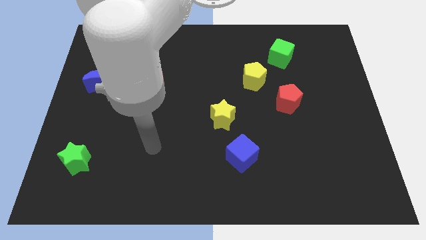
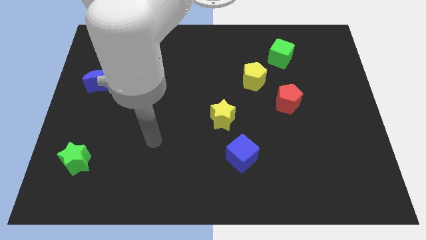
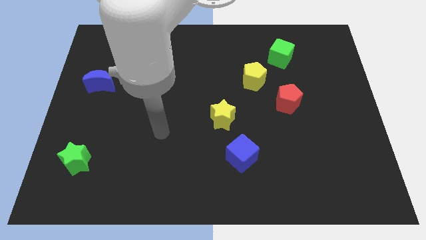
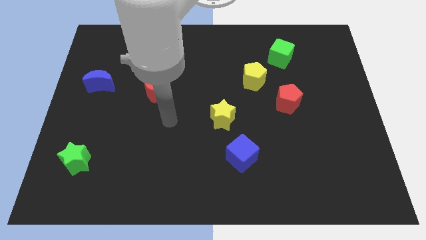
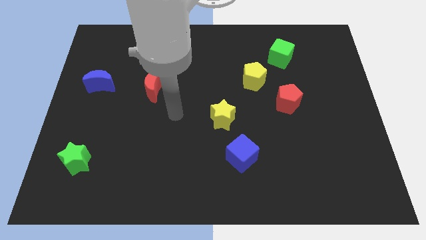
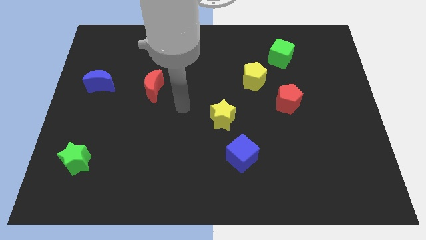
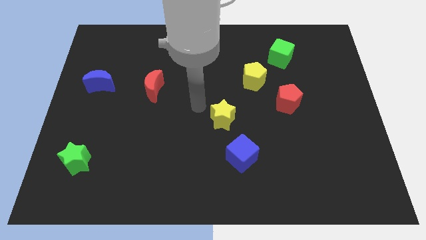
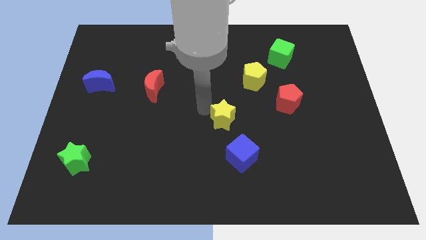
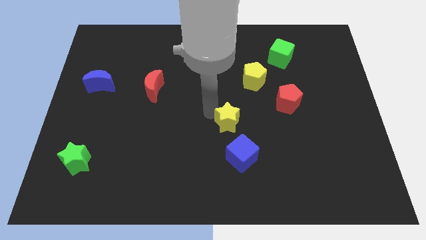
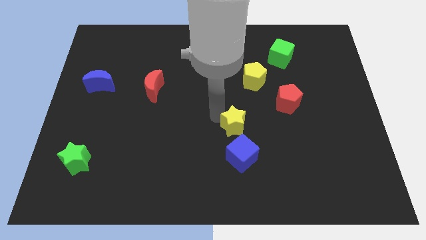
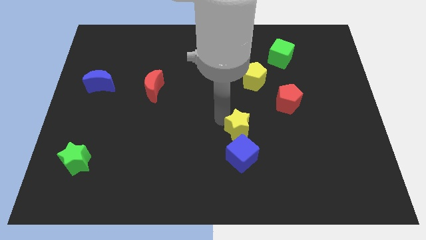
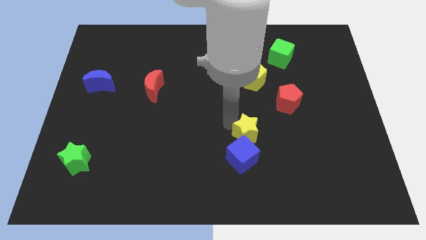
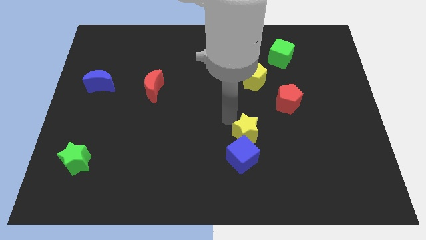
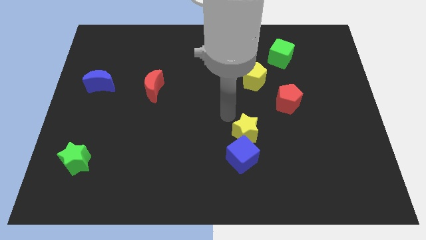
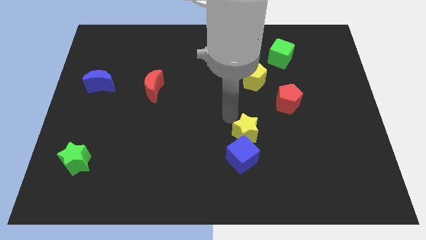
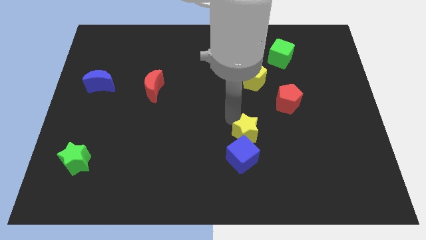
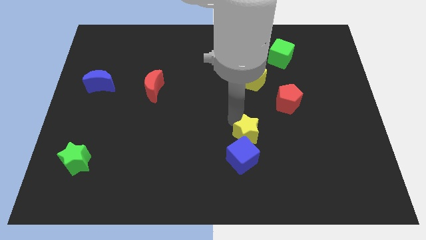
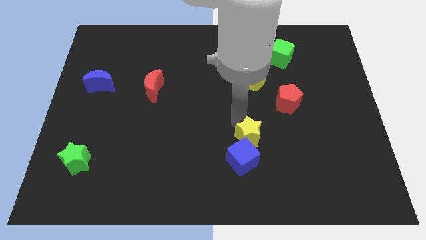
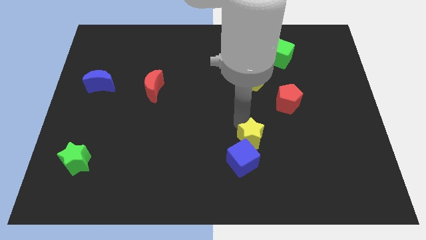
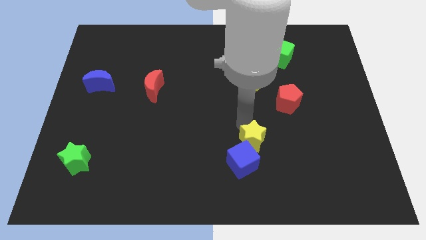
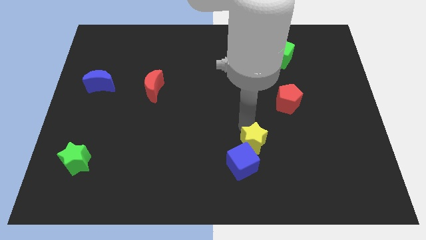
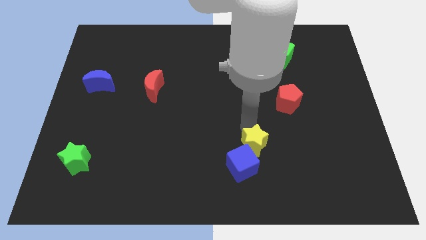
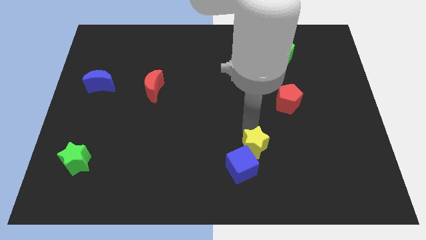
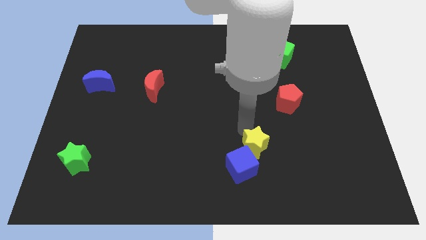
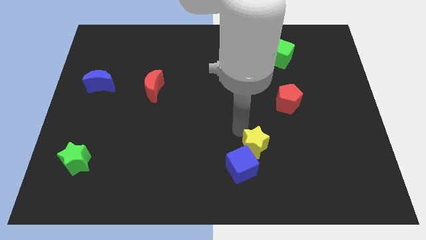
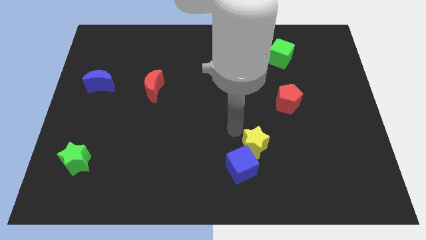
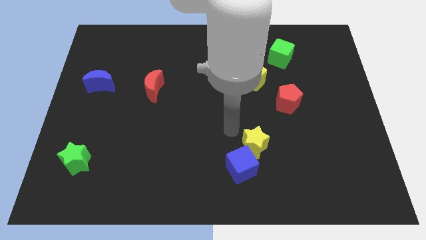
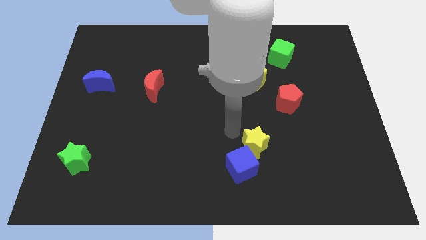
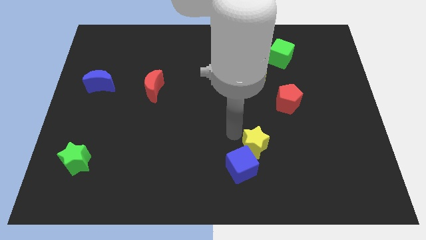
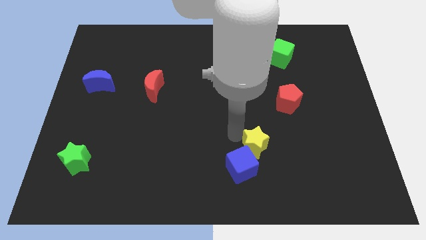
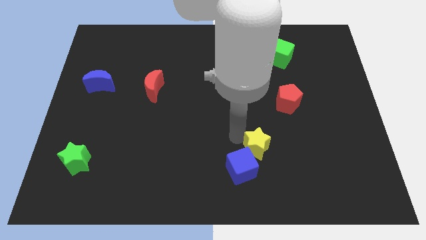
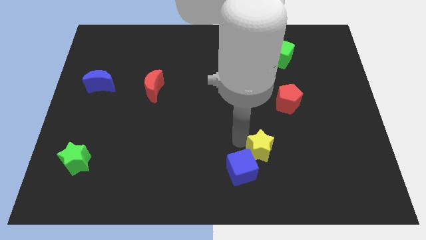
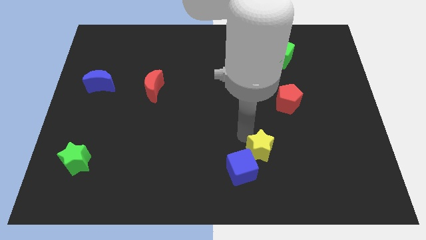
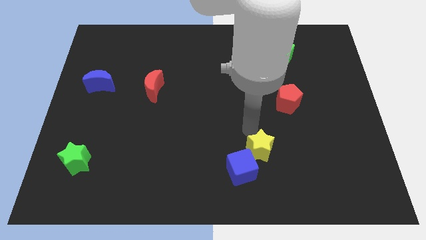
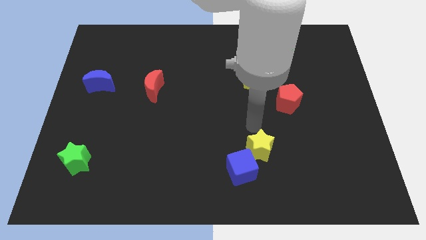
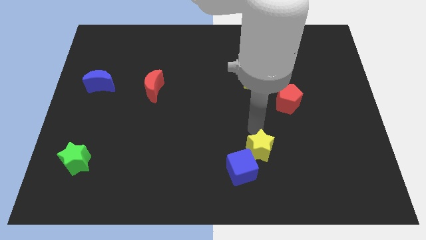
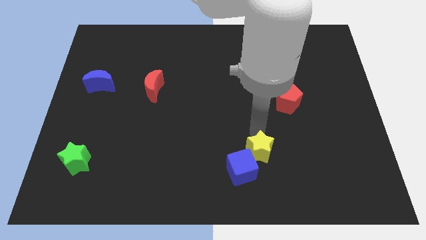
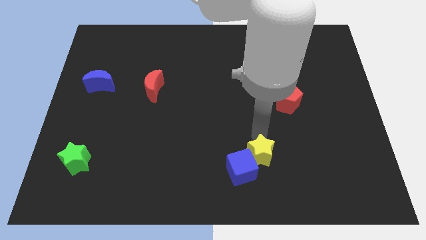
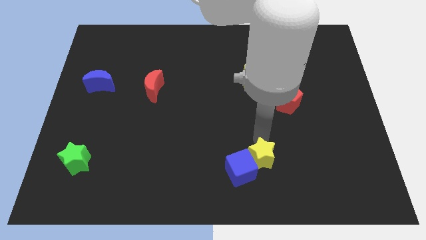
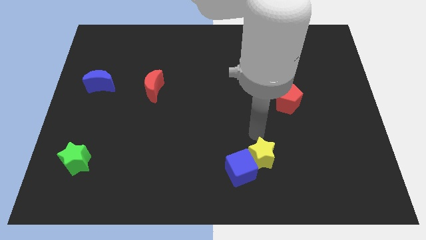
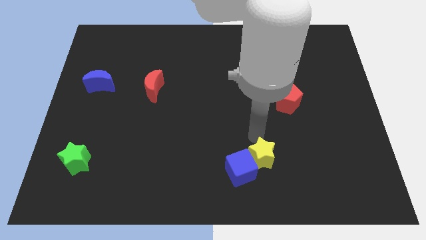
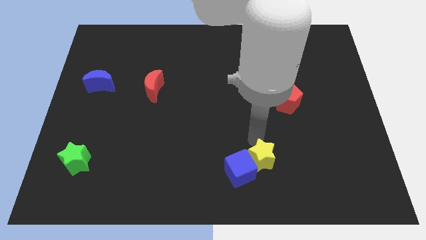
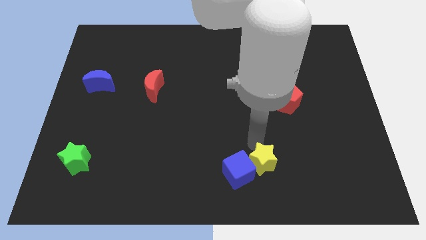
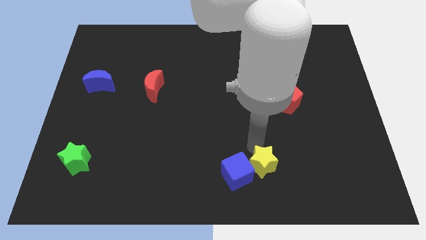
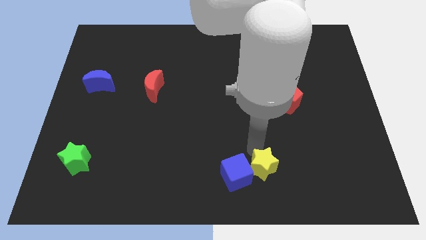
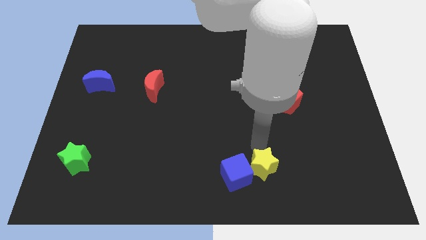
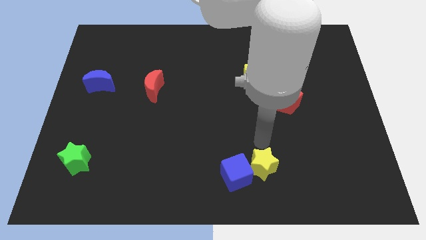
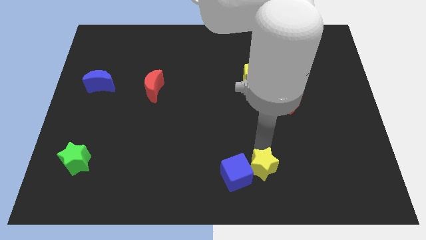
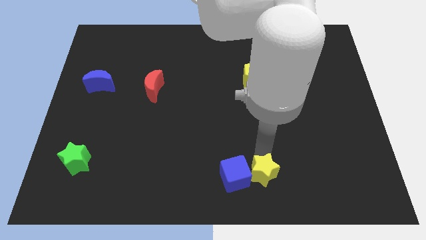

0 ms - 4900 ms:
put the yellow star to the bottom right of the blue cube

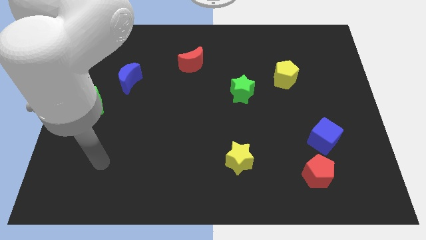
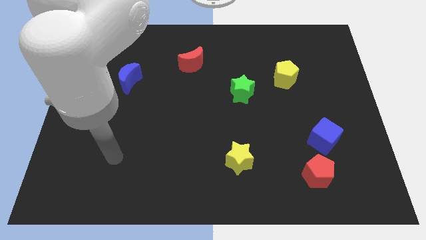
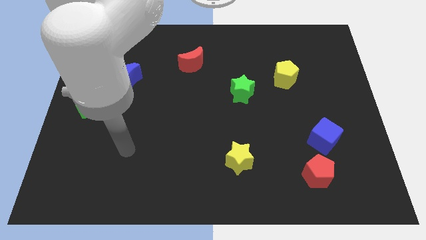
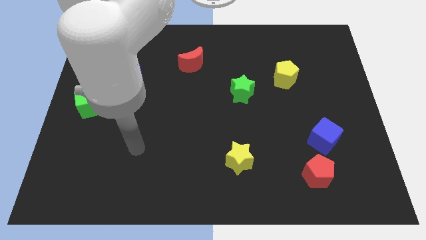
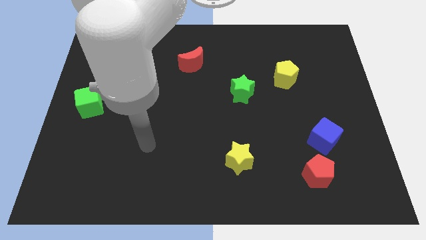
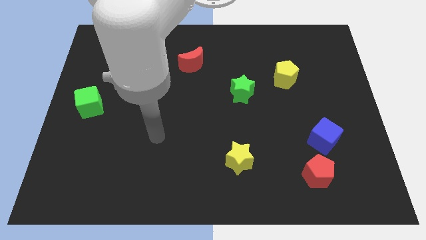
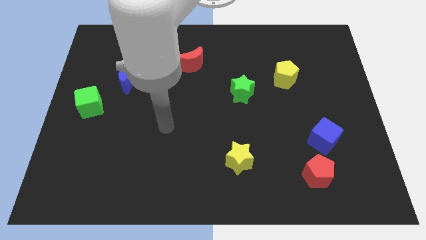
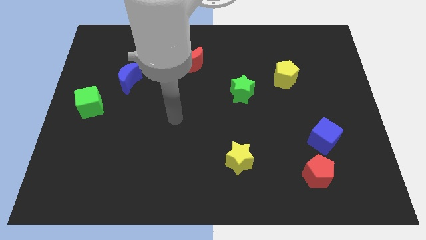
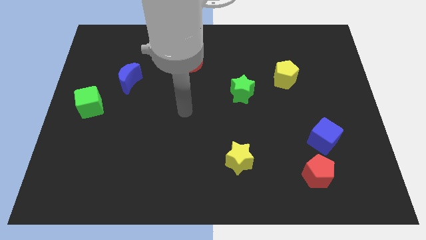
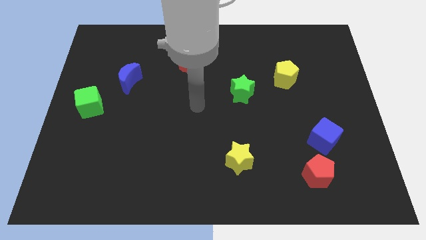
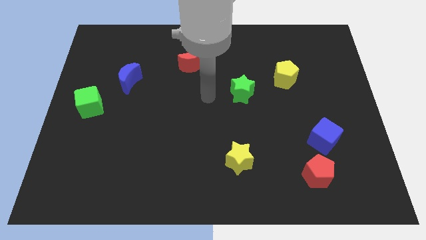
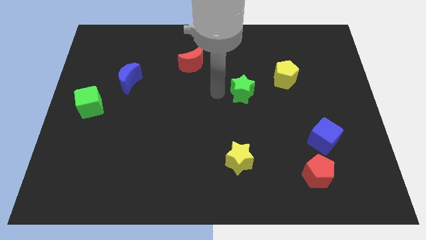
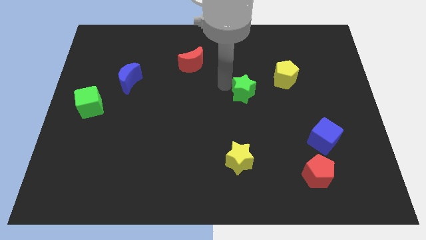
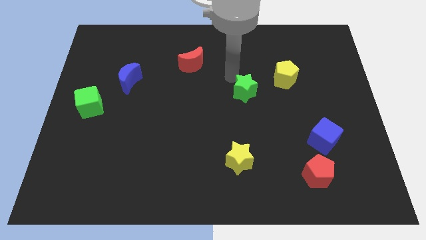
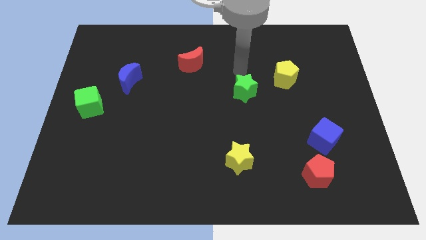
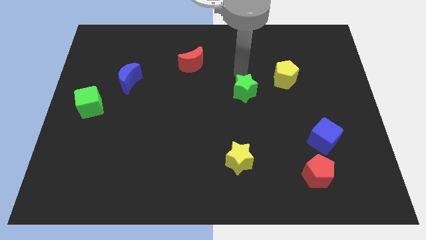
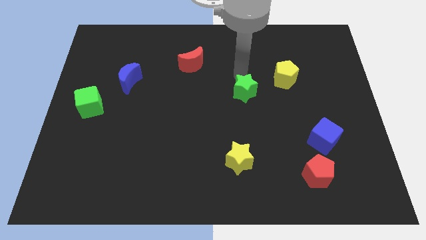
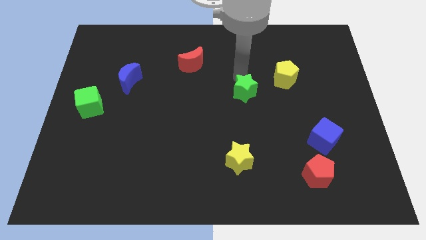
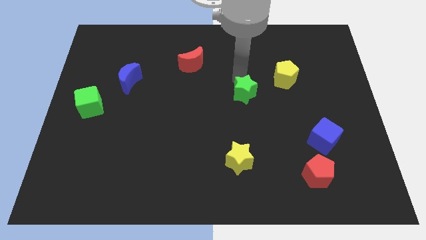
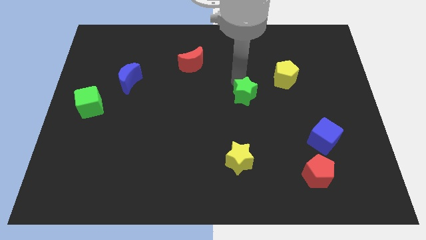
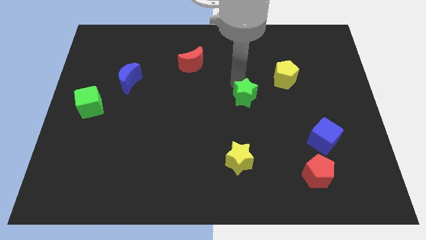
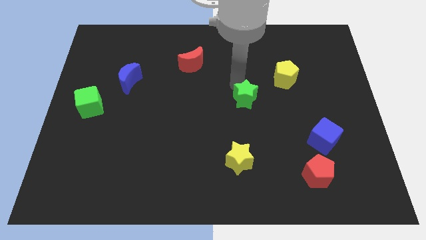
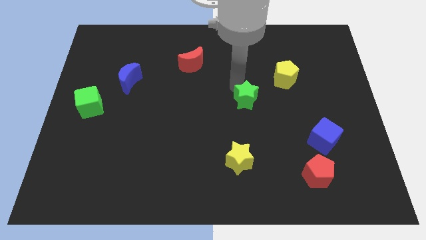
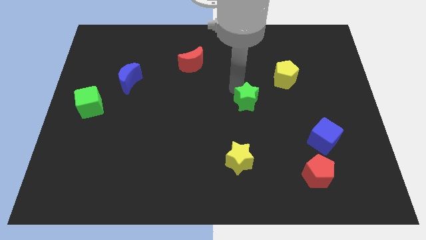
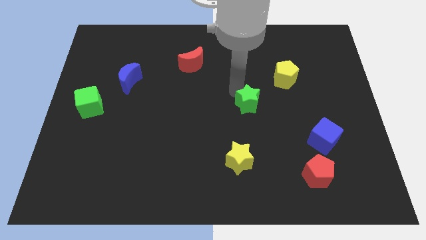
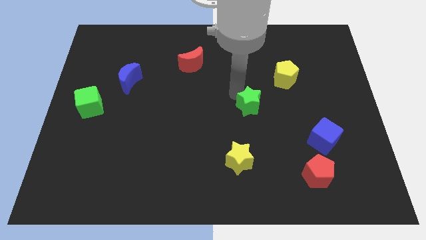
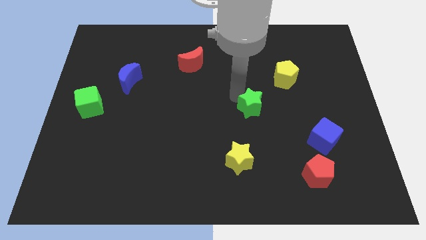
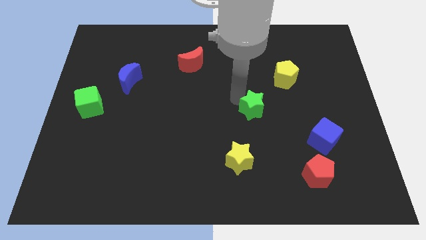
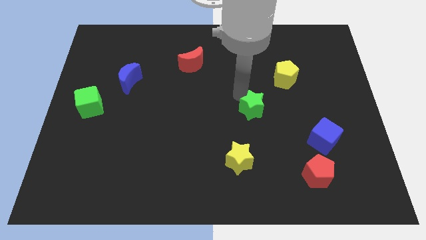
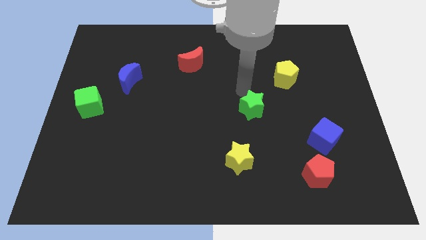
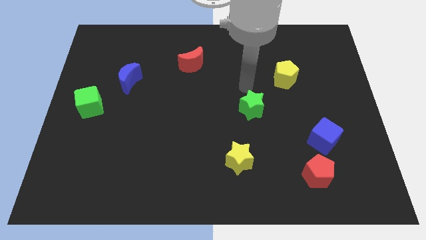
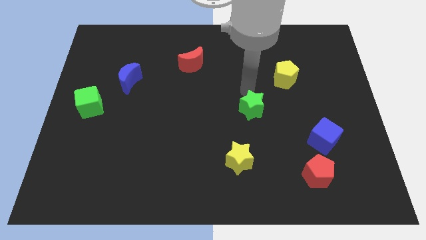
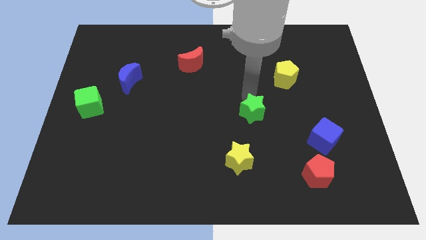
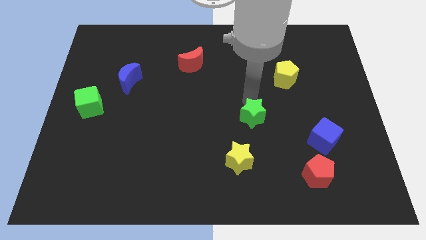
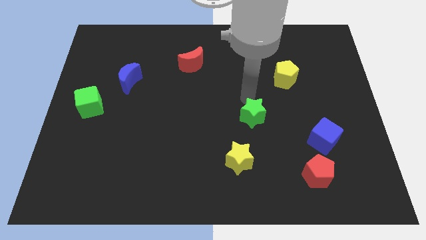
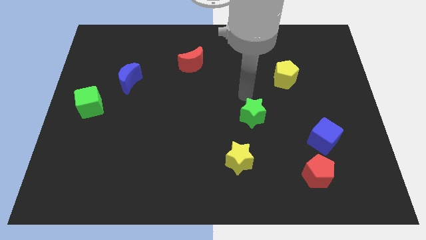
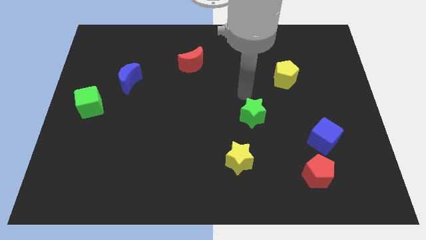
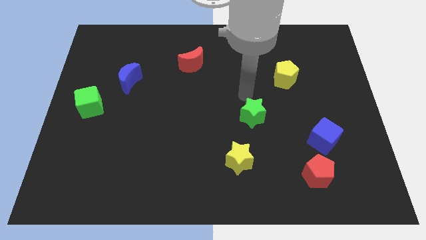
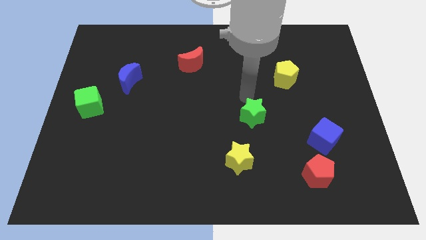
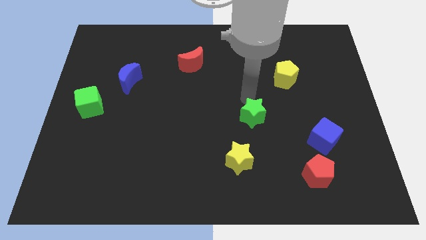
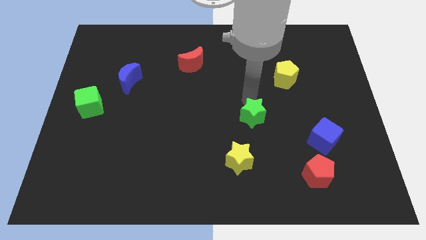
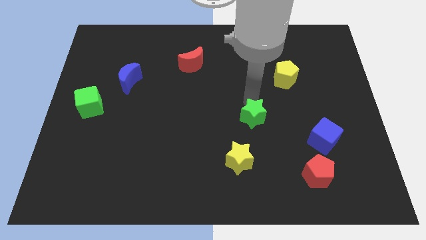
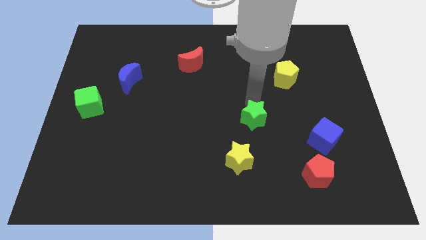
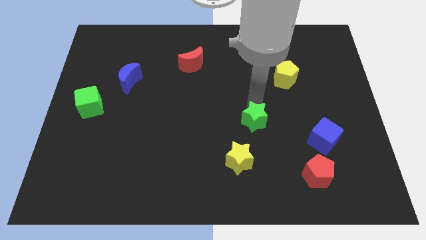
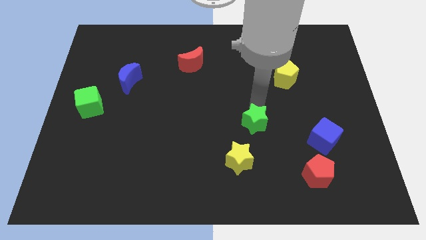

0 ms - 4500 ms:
push the green star to the top right side of the yellow star
